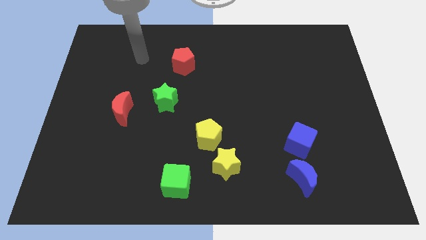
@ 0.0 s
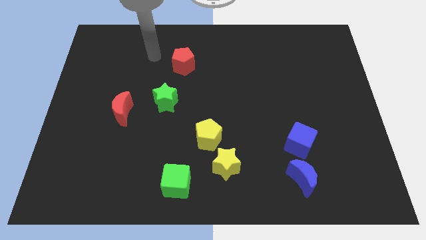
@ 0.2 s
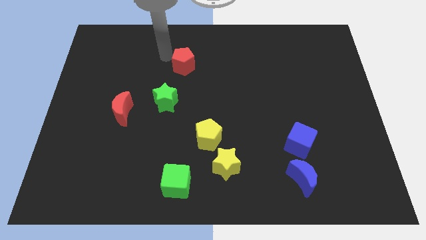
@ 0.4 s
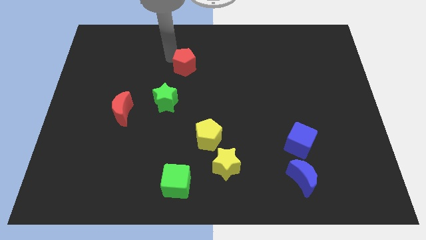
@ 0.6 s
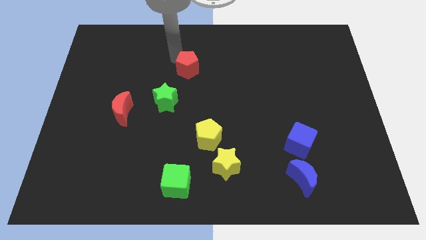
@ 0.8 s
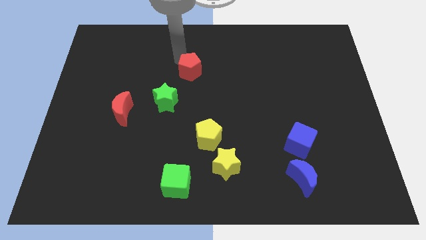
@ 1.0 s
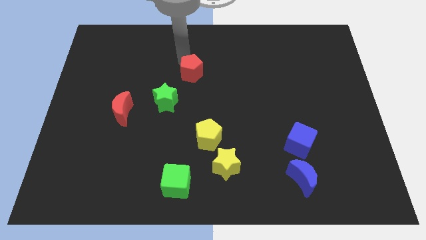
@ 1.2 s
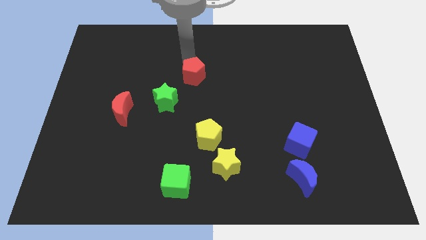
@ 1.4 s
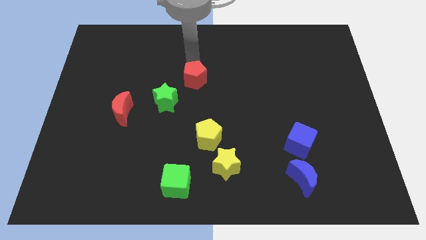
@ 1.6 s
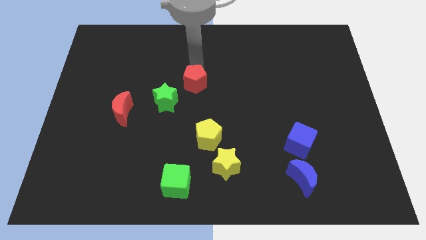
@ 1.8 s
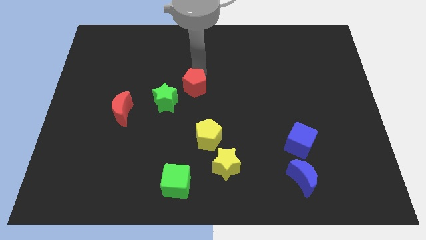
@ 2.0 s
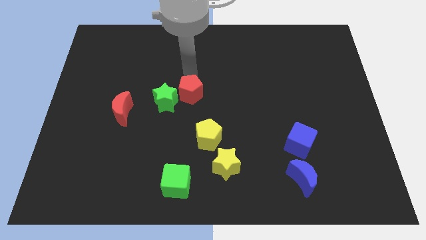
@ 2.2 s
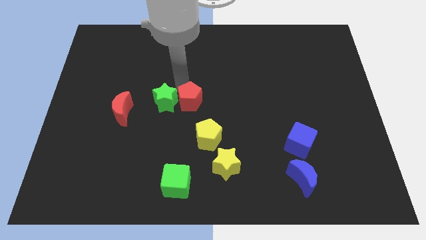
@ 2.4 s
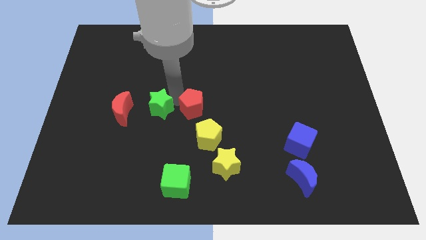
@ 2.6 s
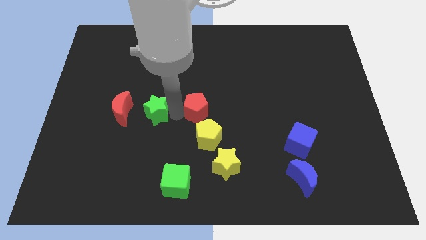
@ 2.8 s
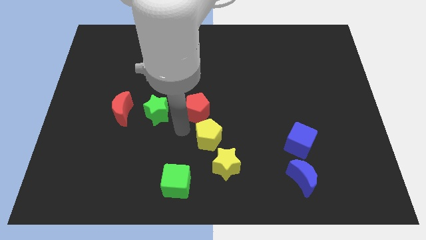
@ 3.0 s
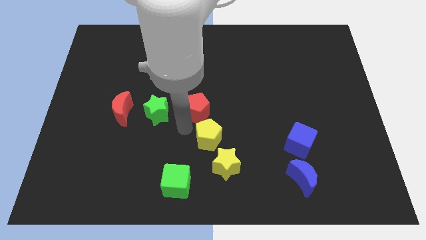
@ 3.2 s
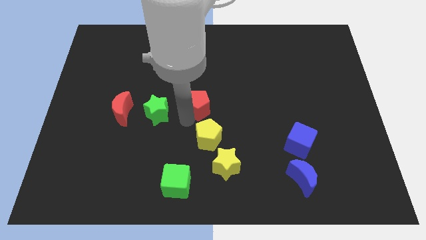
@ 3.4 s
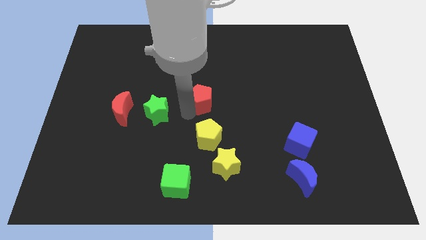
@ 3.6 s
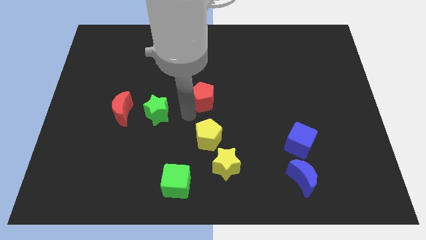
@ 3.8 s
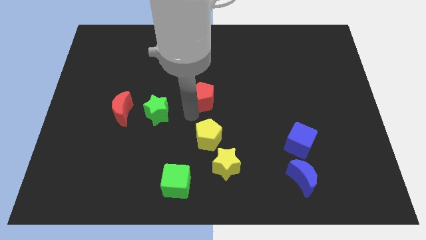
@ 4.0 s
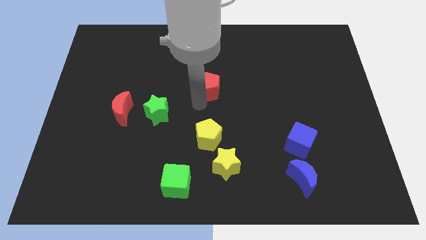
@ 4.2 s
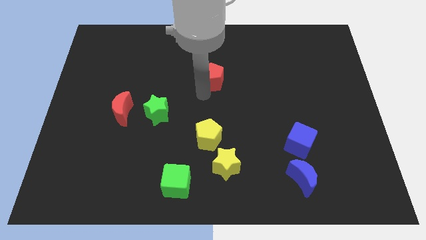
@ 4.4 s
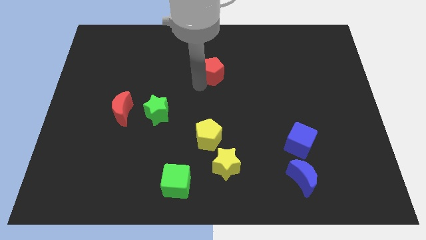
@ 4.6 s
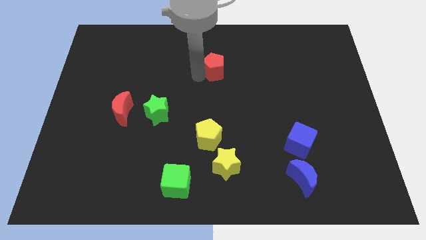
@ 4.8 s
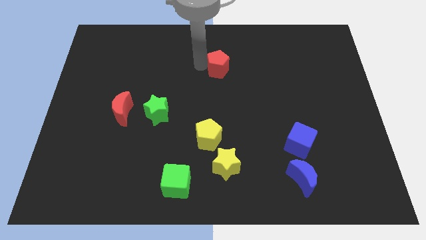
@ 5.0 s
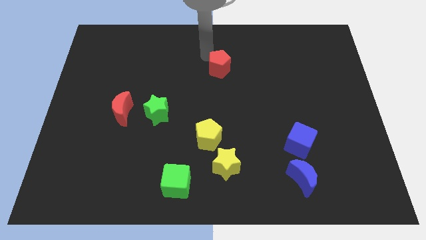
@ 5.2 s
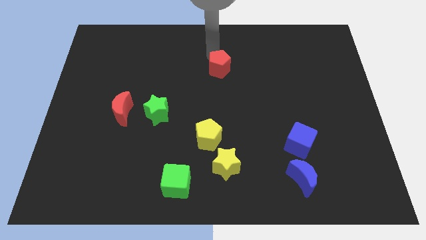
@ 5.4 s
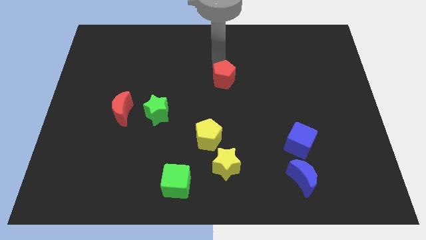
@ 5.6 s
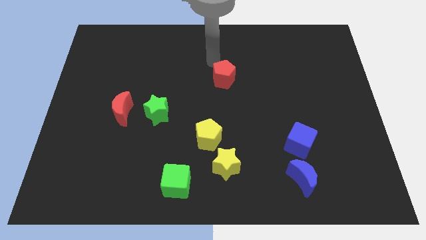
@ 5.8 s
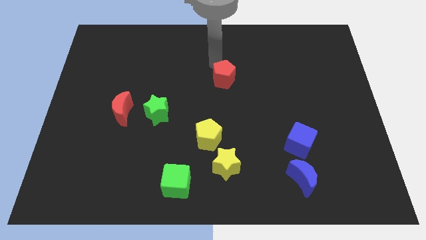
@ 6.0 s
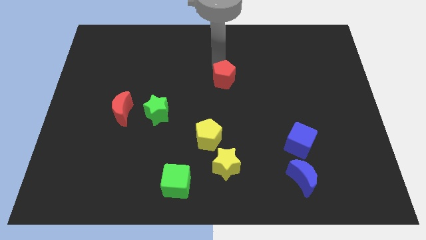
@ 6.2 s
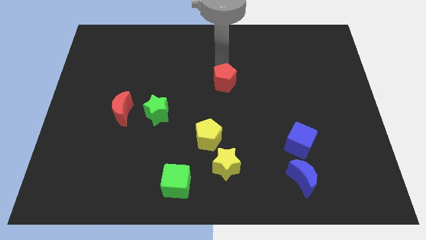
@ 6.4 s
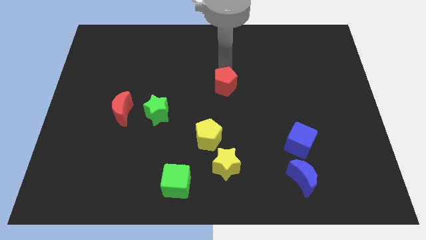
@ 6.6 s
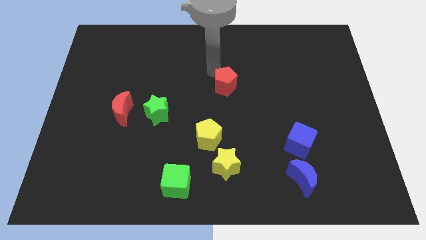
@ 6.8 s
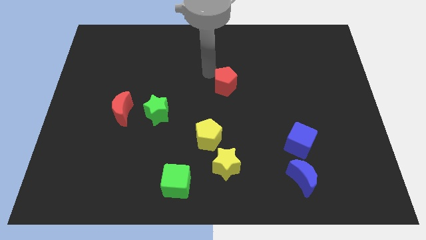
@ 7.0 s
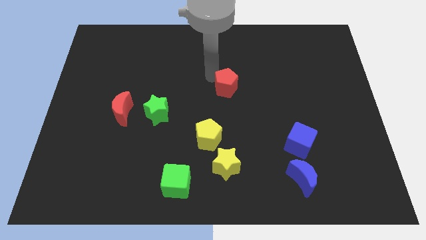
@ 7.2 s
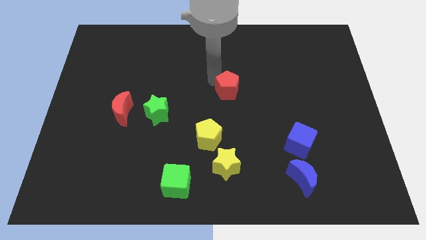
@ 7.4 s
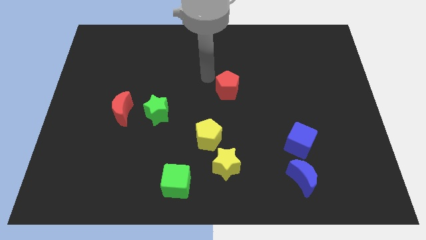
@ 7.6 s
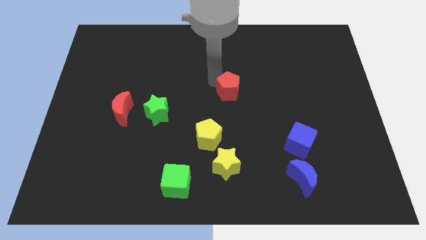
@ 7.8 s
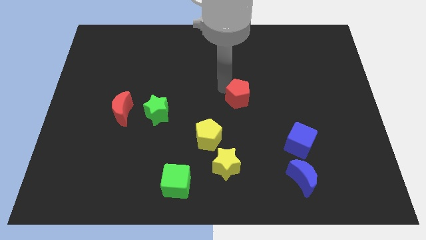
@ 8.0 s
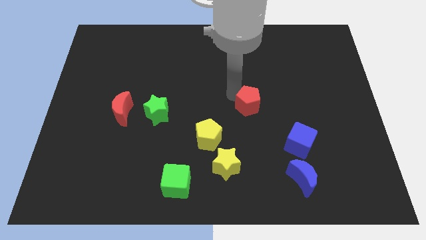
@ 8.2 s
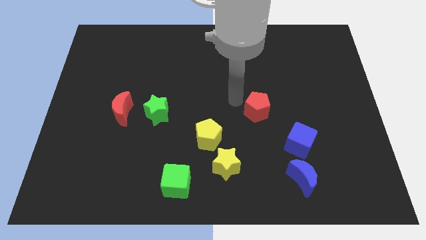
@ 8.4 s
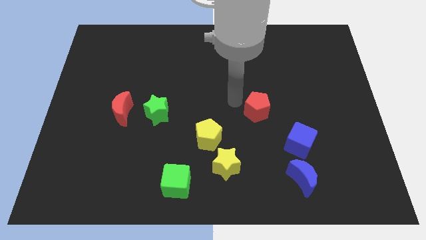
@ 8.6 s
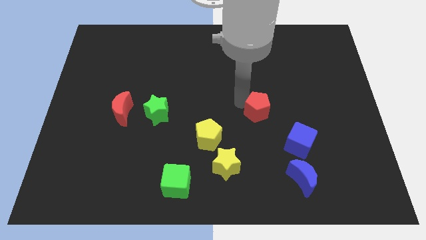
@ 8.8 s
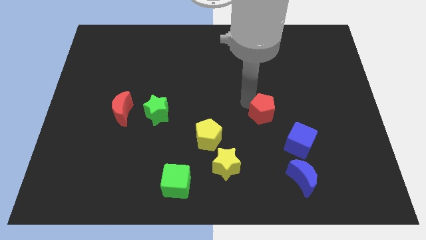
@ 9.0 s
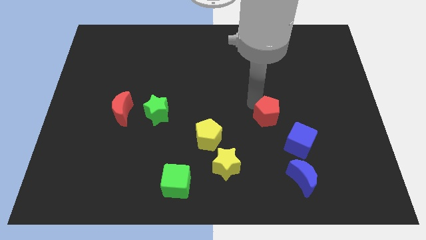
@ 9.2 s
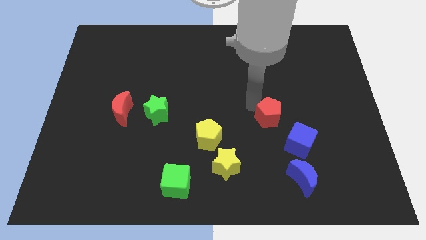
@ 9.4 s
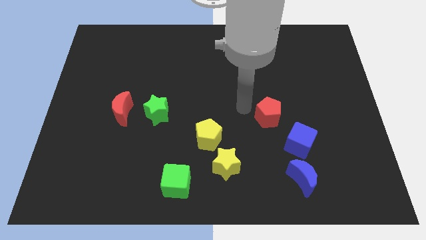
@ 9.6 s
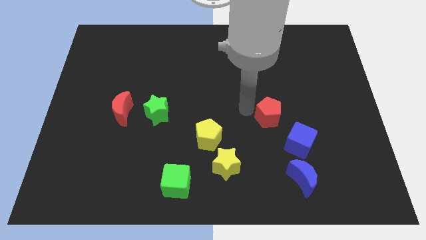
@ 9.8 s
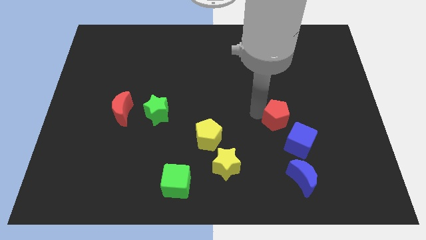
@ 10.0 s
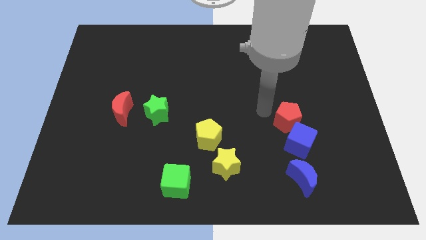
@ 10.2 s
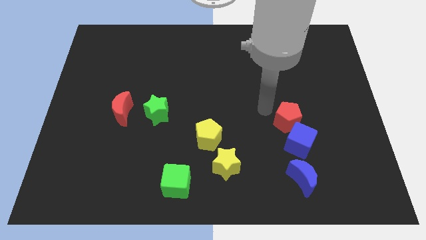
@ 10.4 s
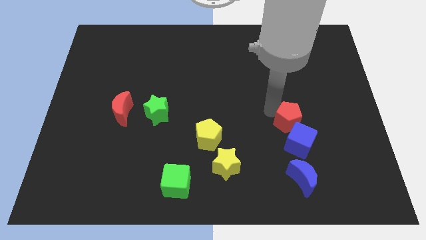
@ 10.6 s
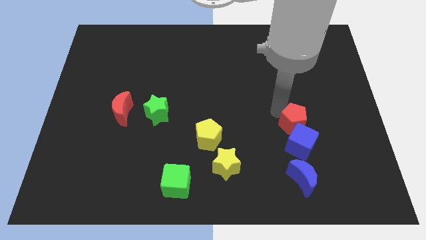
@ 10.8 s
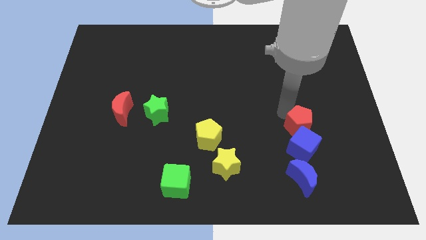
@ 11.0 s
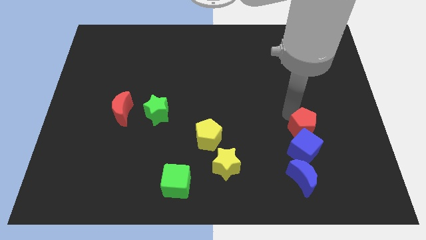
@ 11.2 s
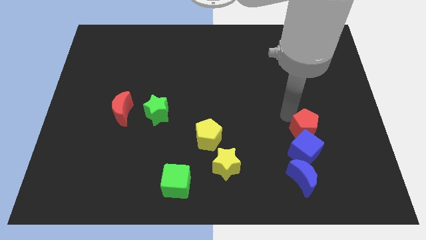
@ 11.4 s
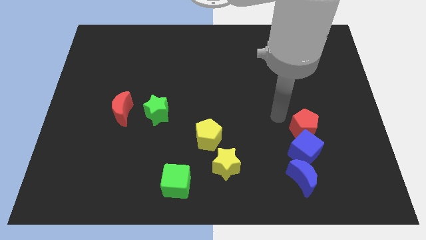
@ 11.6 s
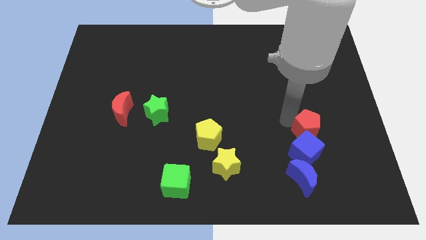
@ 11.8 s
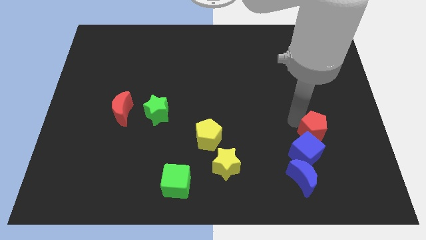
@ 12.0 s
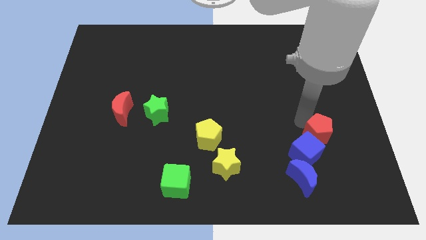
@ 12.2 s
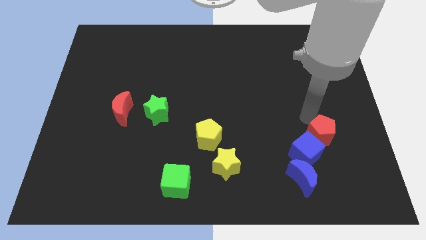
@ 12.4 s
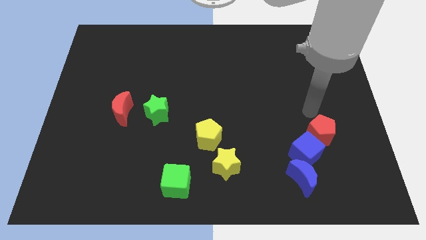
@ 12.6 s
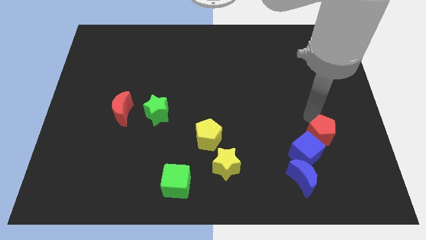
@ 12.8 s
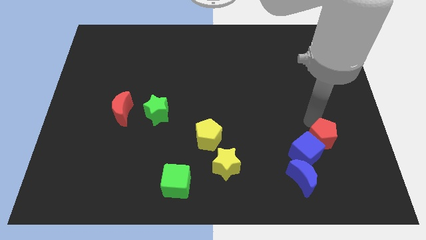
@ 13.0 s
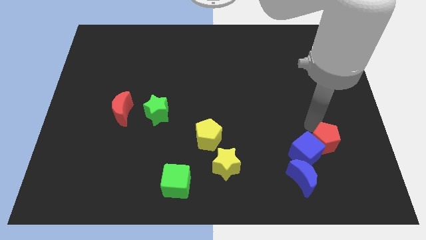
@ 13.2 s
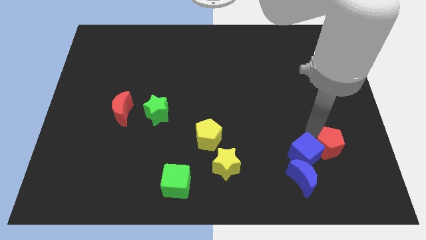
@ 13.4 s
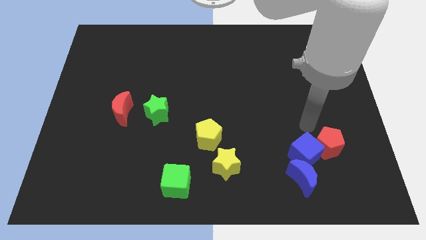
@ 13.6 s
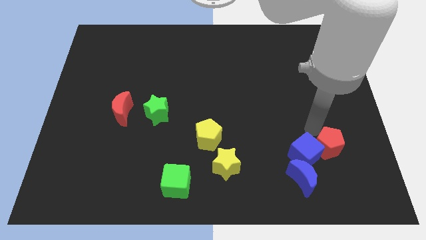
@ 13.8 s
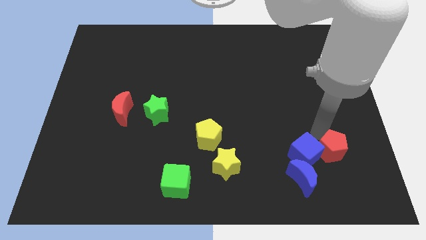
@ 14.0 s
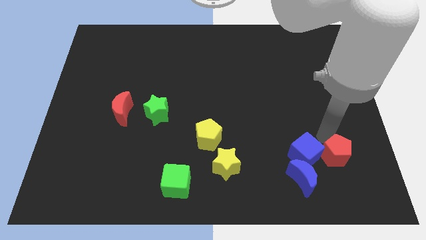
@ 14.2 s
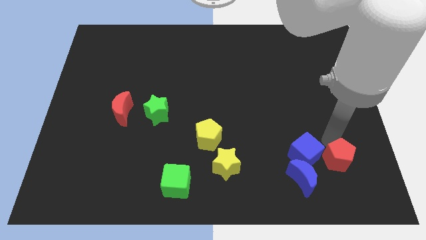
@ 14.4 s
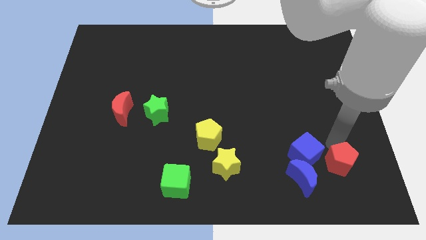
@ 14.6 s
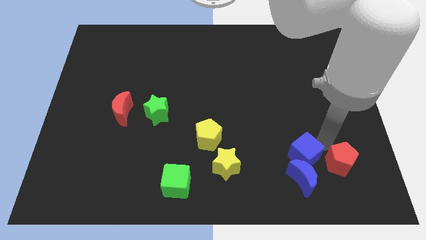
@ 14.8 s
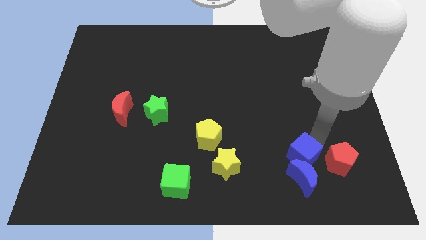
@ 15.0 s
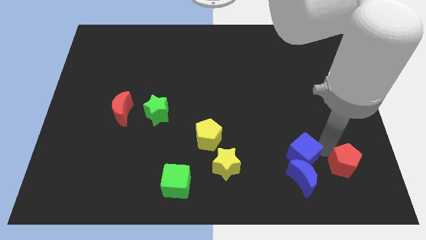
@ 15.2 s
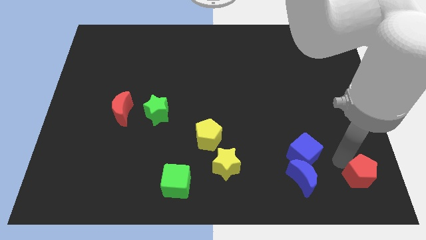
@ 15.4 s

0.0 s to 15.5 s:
put the red pentagon to the lower right corner
